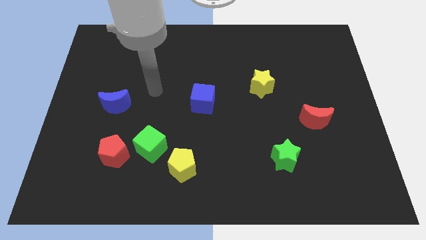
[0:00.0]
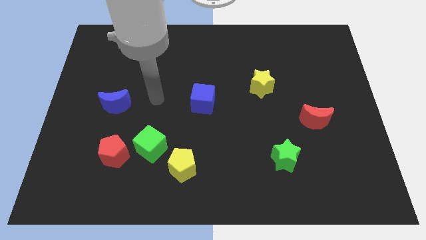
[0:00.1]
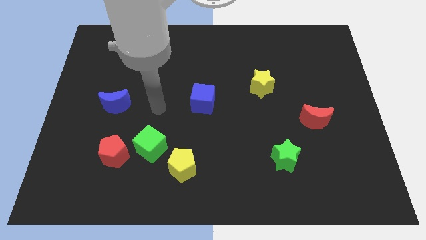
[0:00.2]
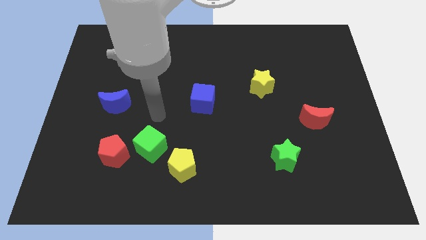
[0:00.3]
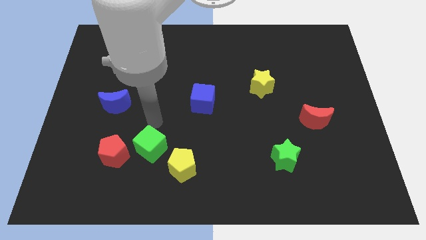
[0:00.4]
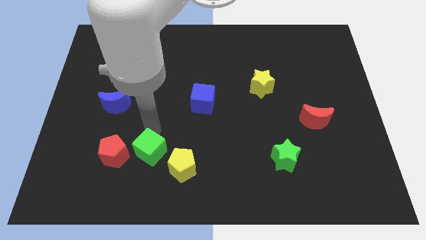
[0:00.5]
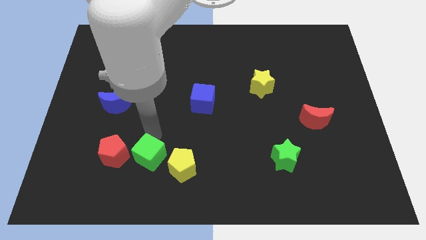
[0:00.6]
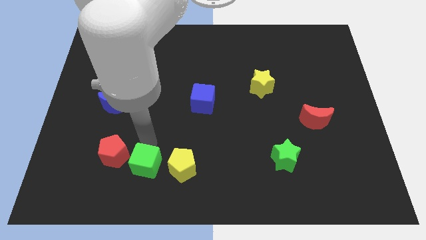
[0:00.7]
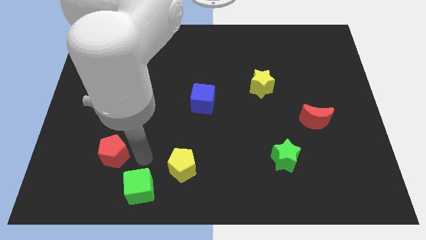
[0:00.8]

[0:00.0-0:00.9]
pull the red pentagon apart from the green cube

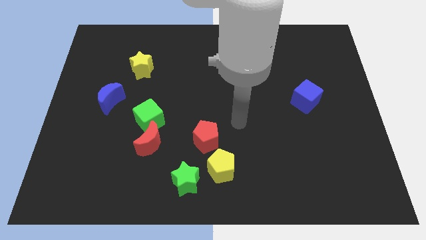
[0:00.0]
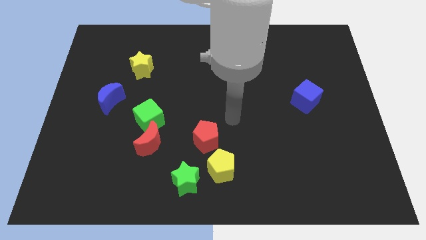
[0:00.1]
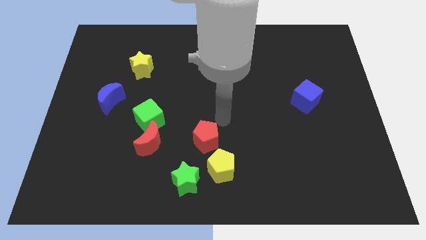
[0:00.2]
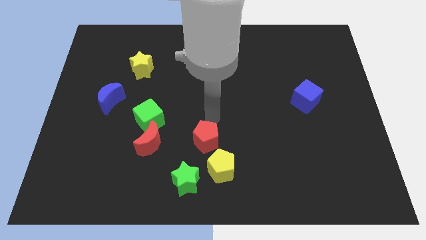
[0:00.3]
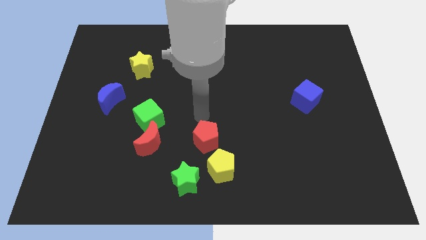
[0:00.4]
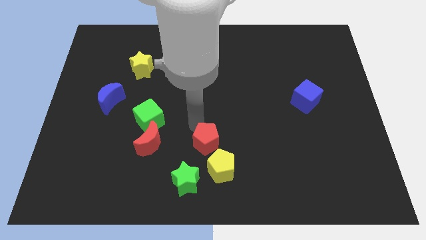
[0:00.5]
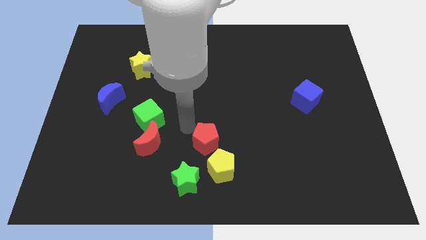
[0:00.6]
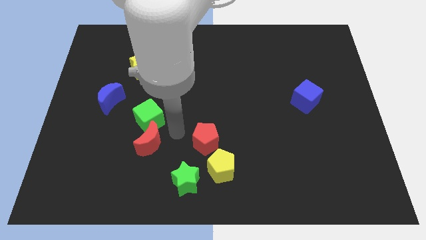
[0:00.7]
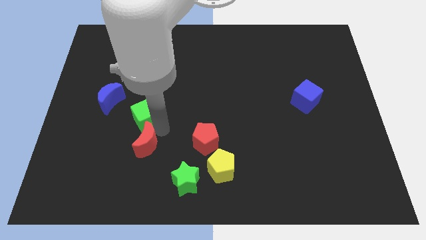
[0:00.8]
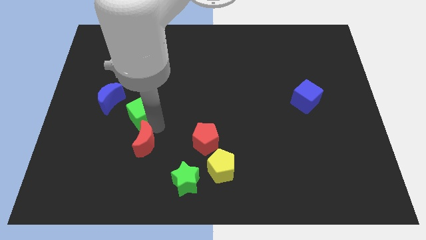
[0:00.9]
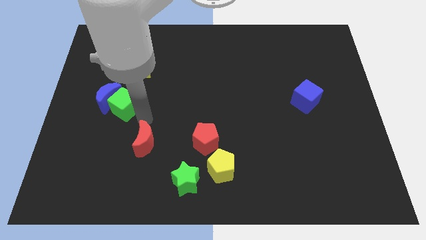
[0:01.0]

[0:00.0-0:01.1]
pull the red moon apart from the green cube

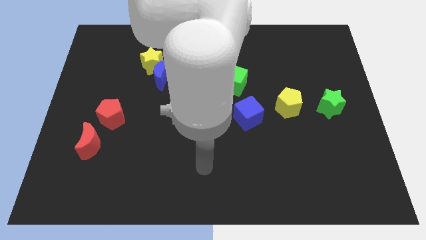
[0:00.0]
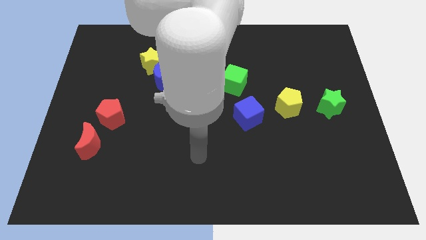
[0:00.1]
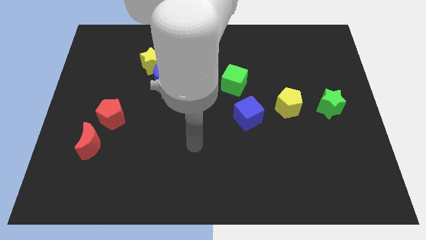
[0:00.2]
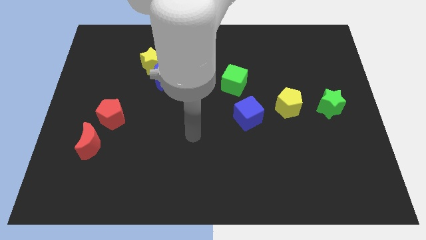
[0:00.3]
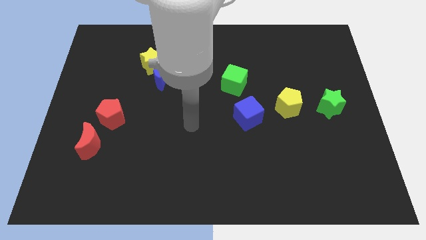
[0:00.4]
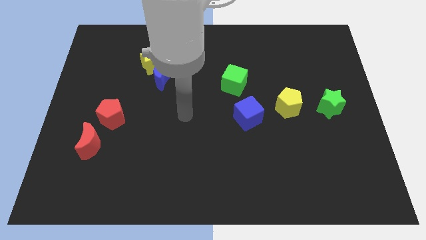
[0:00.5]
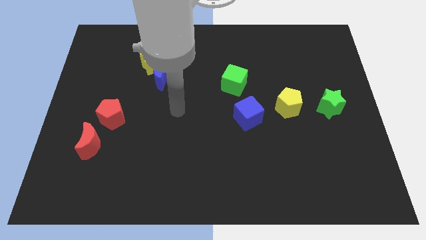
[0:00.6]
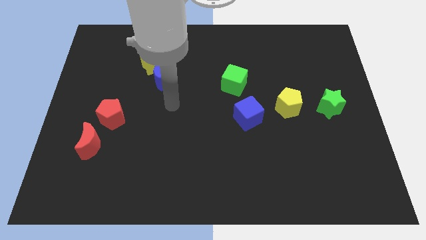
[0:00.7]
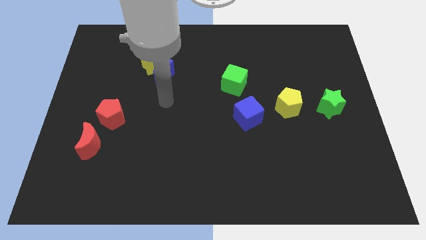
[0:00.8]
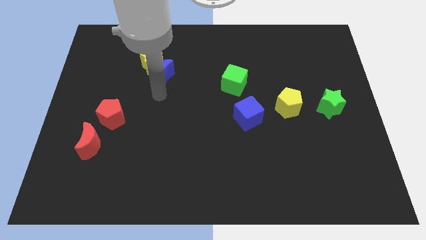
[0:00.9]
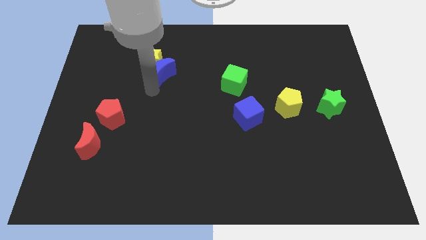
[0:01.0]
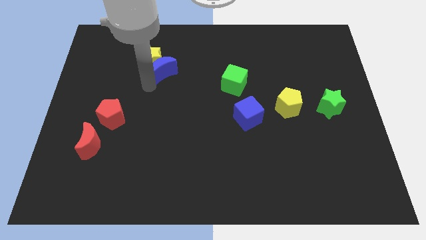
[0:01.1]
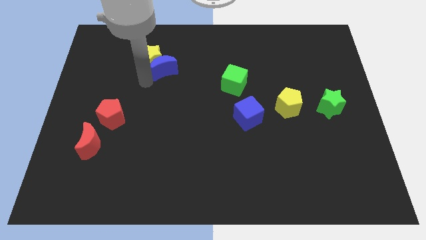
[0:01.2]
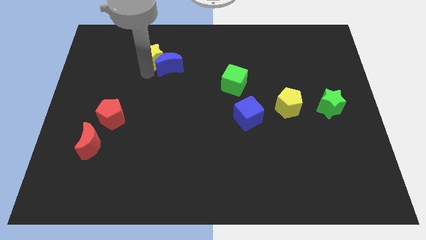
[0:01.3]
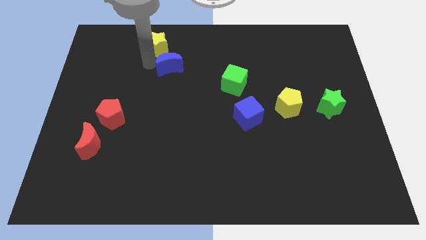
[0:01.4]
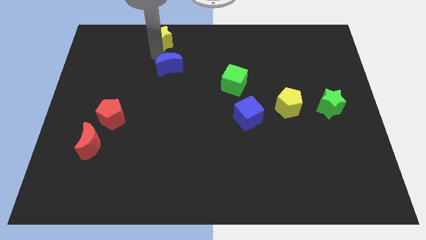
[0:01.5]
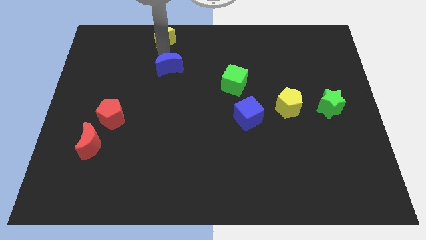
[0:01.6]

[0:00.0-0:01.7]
pull the blue moon apart from the yellow star

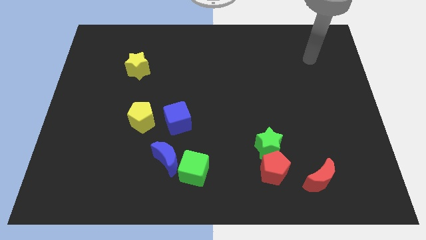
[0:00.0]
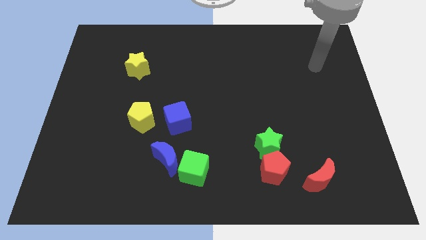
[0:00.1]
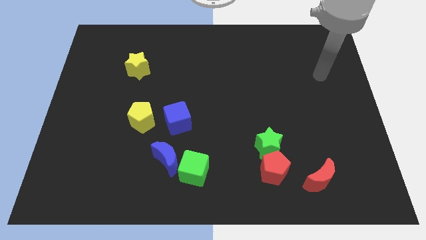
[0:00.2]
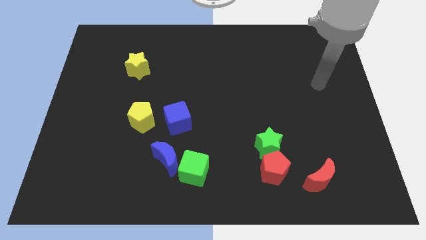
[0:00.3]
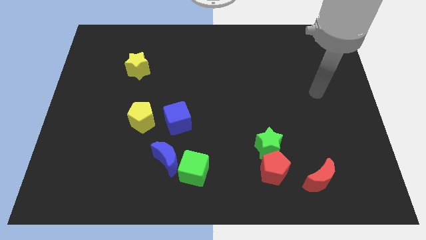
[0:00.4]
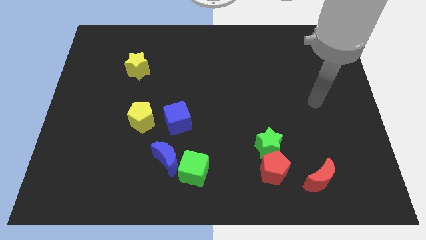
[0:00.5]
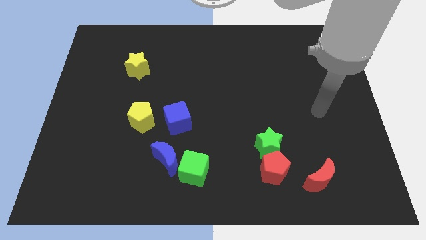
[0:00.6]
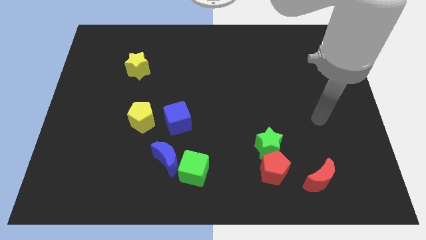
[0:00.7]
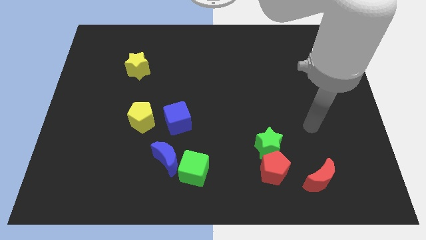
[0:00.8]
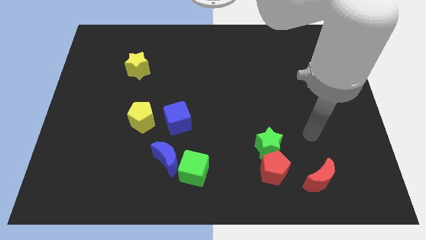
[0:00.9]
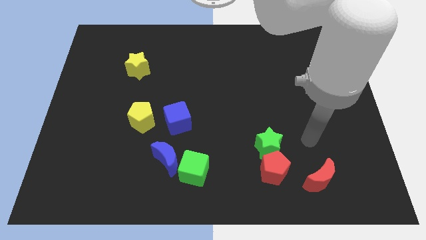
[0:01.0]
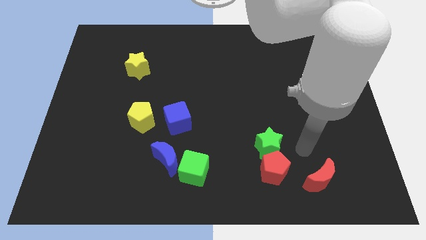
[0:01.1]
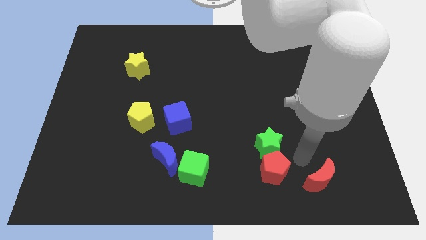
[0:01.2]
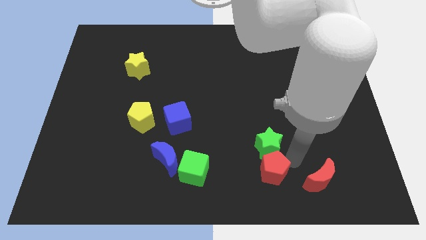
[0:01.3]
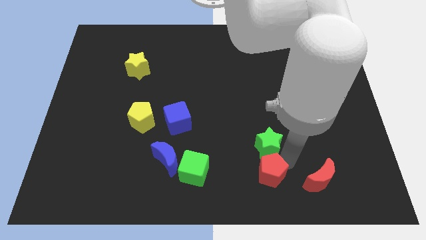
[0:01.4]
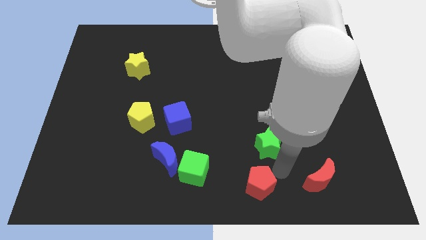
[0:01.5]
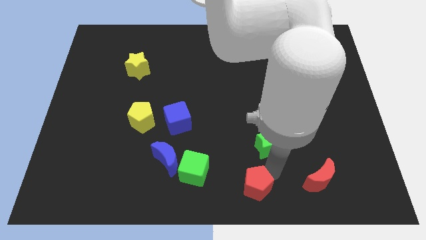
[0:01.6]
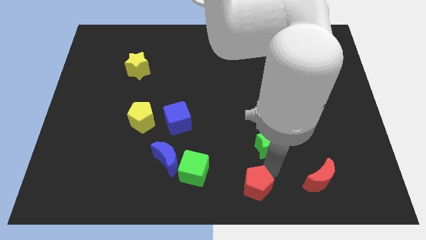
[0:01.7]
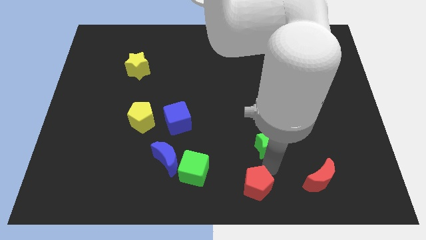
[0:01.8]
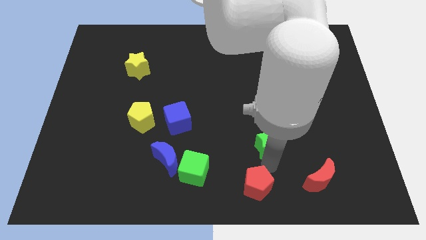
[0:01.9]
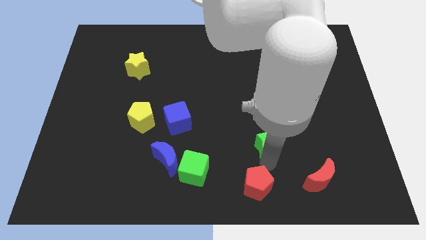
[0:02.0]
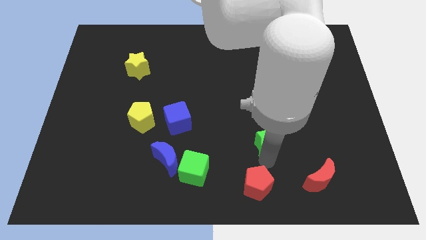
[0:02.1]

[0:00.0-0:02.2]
separate the green star from the red pentagon

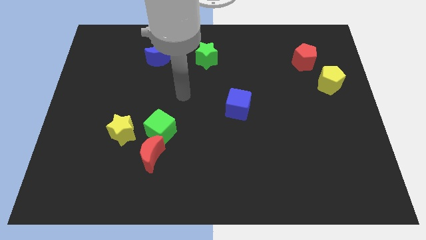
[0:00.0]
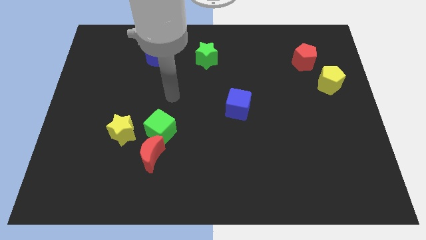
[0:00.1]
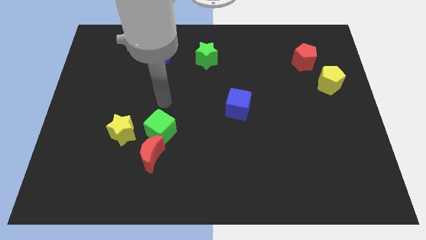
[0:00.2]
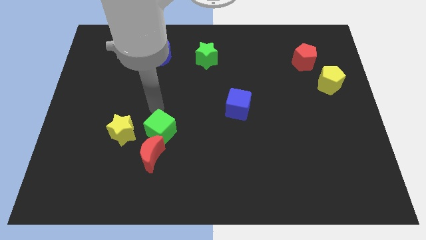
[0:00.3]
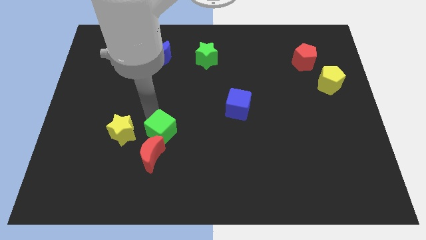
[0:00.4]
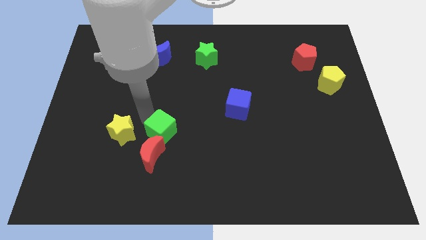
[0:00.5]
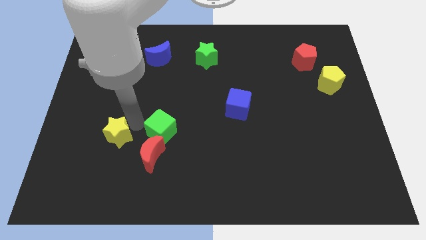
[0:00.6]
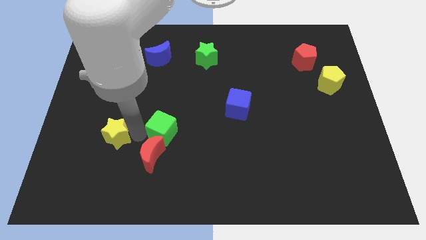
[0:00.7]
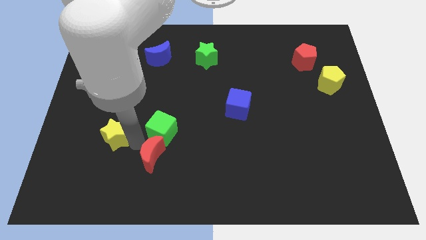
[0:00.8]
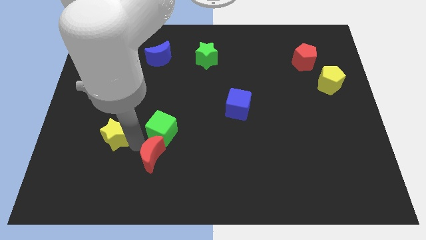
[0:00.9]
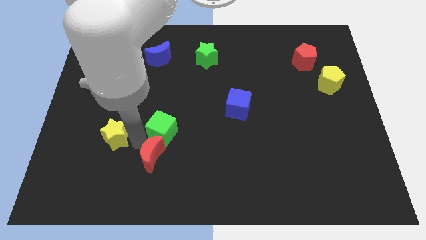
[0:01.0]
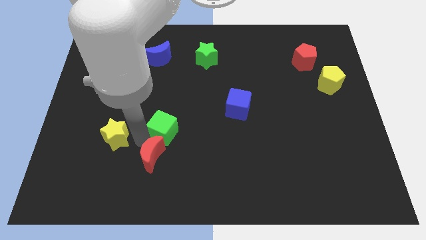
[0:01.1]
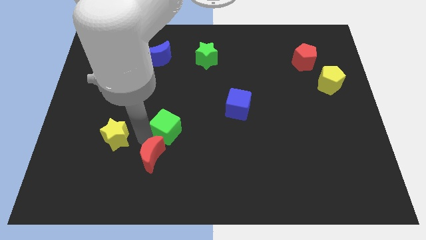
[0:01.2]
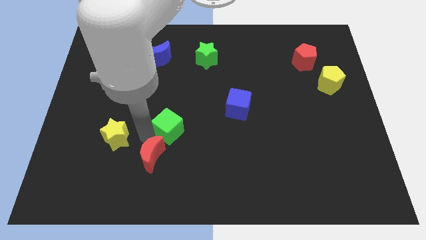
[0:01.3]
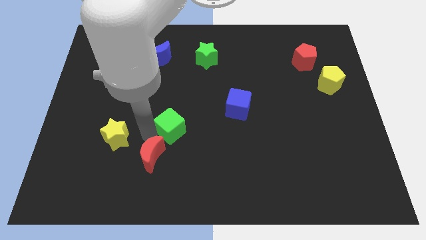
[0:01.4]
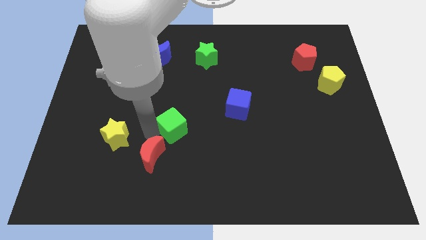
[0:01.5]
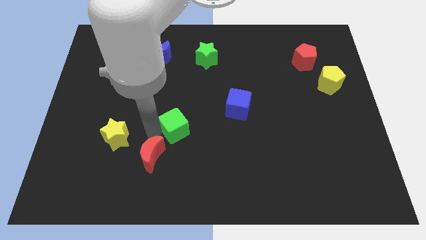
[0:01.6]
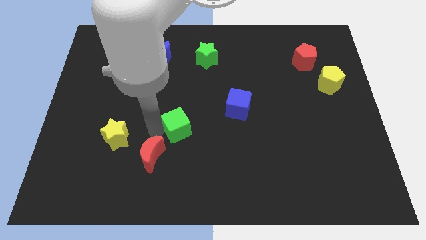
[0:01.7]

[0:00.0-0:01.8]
separate the green cube from the red moon and yellow star

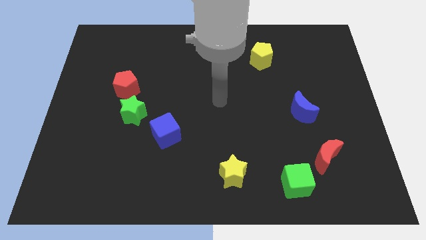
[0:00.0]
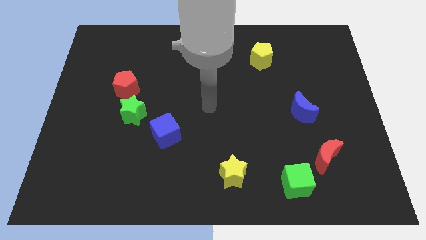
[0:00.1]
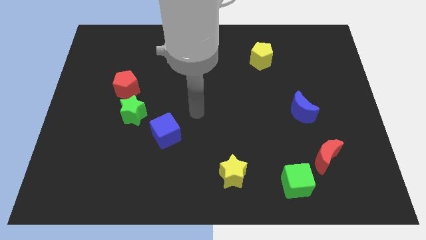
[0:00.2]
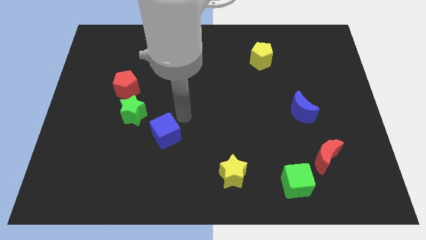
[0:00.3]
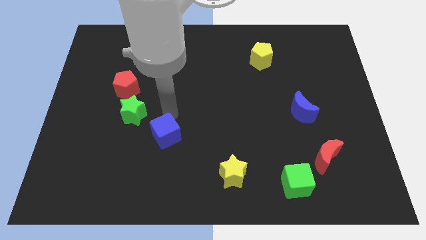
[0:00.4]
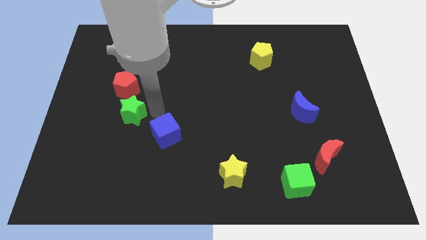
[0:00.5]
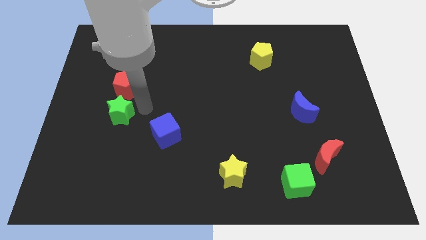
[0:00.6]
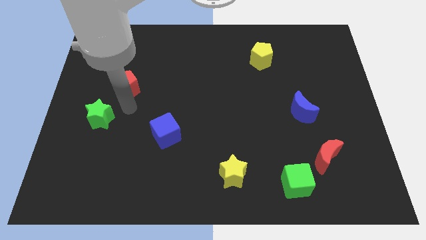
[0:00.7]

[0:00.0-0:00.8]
move the red pentagon away from the green star

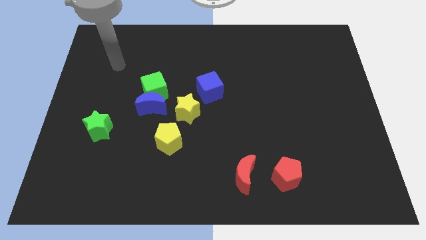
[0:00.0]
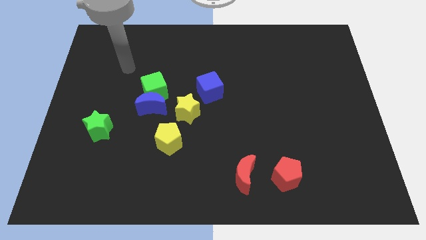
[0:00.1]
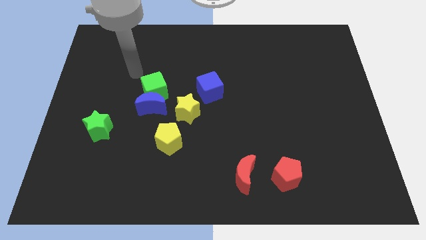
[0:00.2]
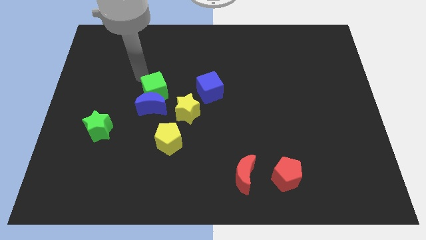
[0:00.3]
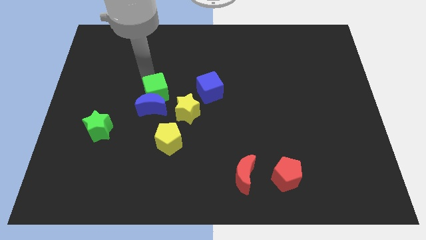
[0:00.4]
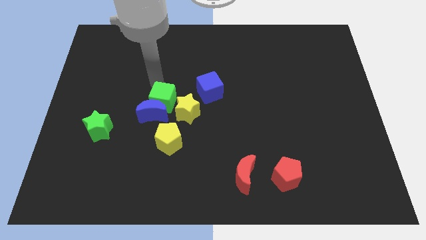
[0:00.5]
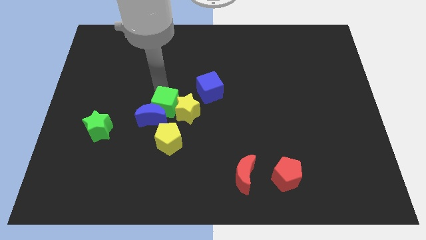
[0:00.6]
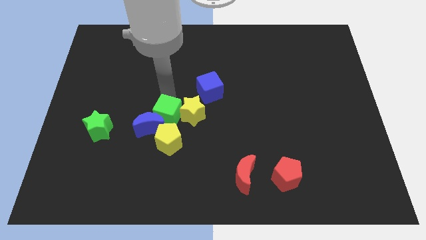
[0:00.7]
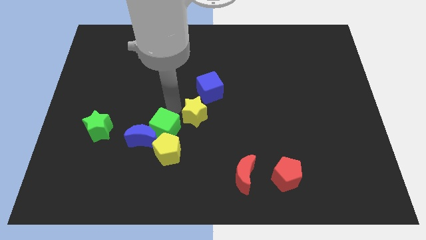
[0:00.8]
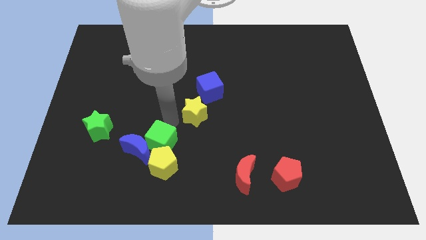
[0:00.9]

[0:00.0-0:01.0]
separate the blue moon from the green cube and yellow star
